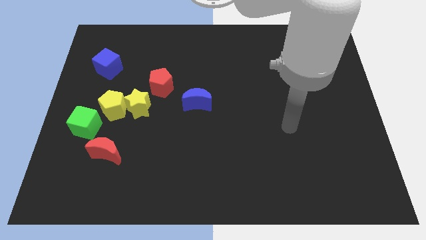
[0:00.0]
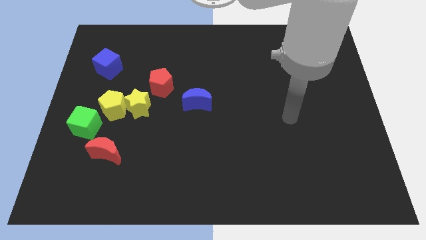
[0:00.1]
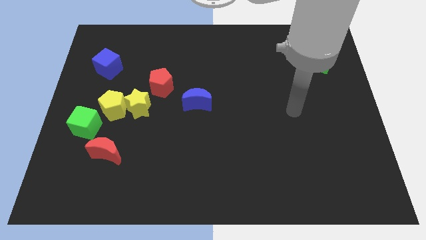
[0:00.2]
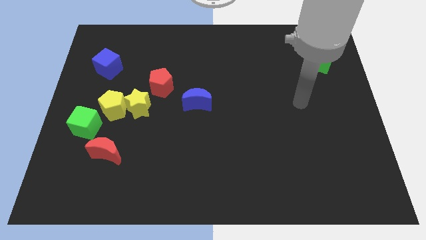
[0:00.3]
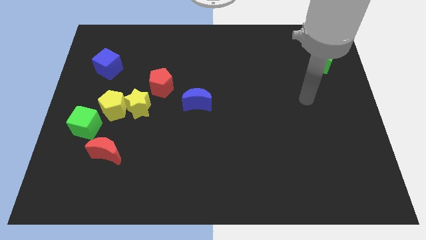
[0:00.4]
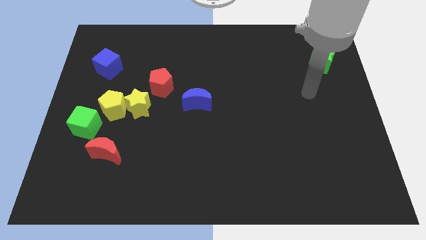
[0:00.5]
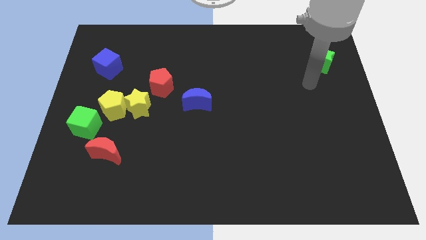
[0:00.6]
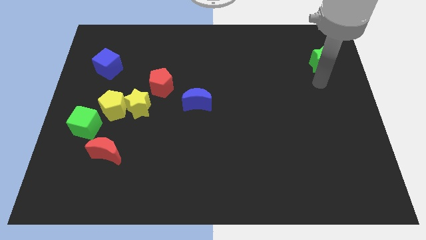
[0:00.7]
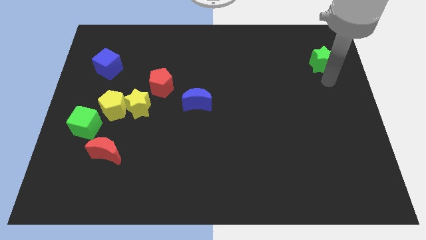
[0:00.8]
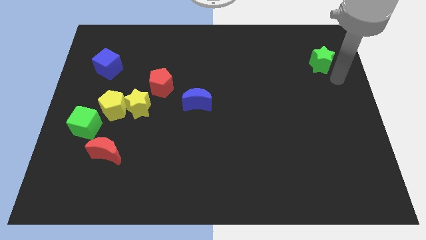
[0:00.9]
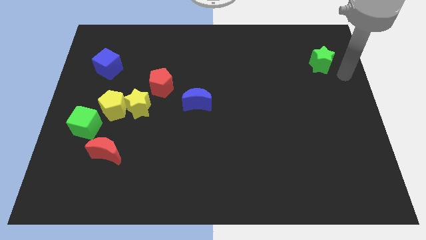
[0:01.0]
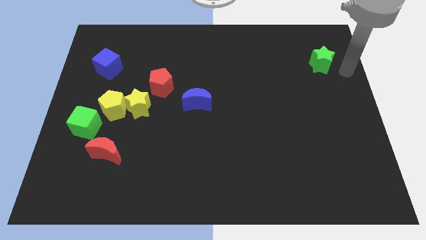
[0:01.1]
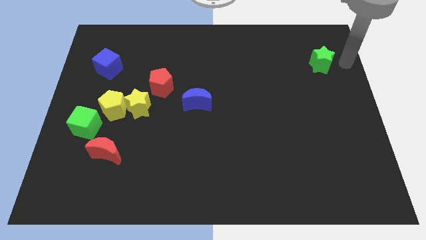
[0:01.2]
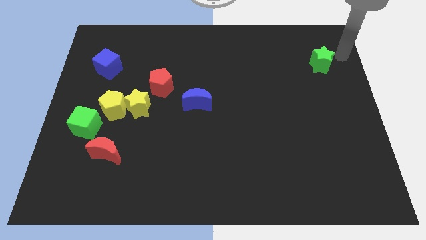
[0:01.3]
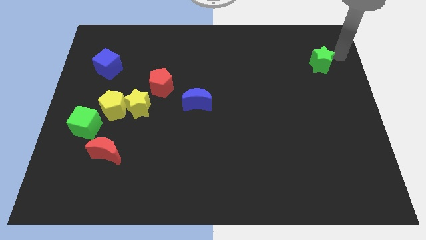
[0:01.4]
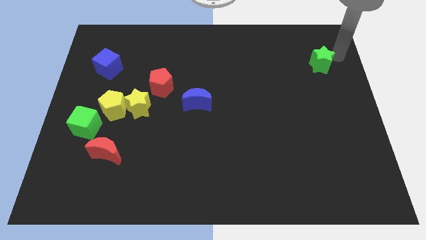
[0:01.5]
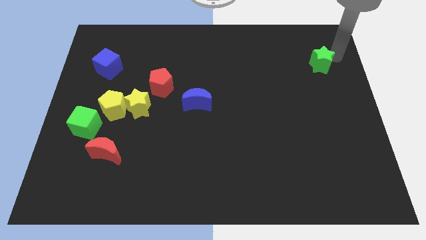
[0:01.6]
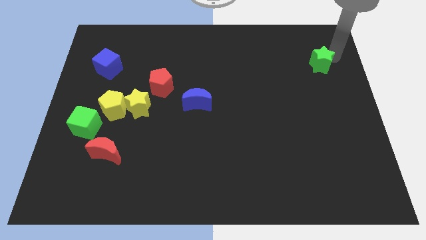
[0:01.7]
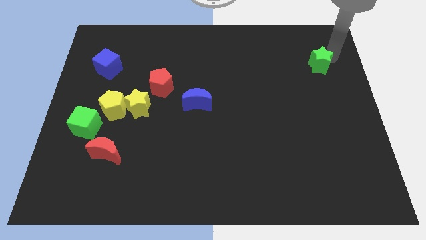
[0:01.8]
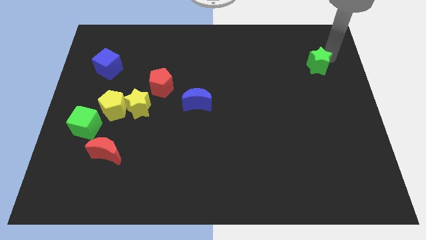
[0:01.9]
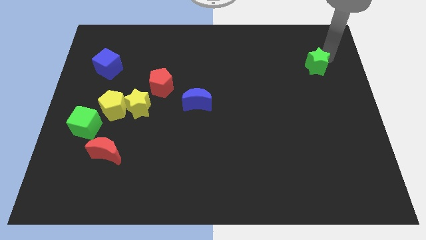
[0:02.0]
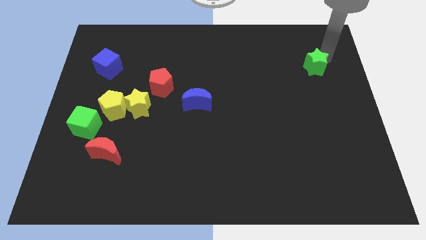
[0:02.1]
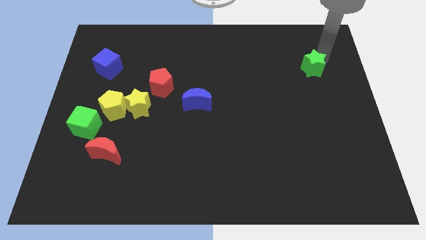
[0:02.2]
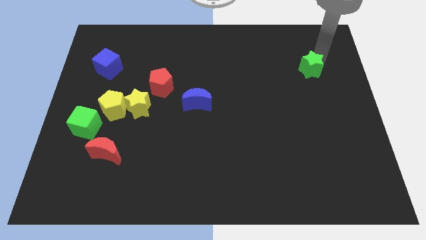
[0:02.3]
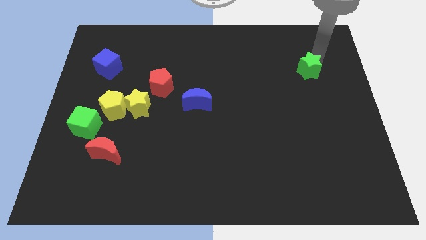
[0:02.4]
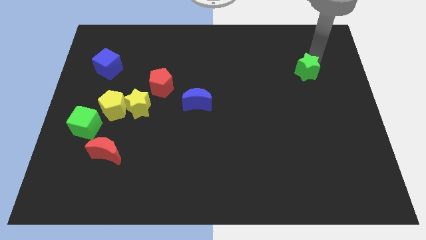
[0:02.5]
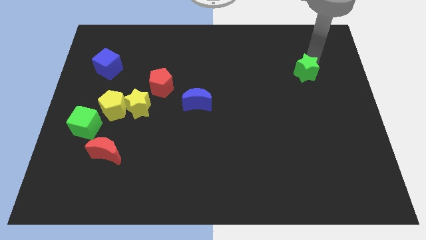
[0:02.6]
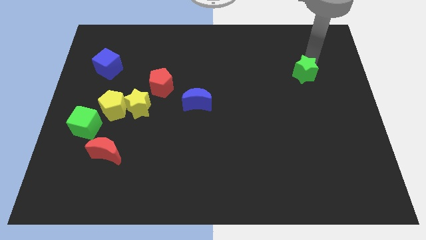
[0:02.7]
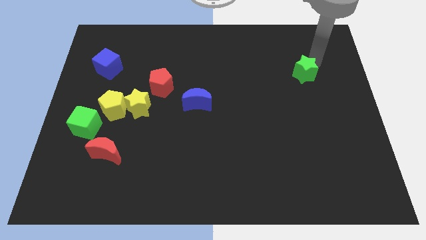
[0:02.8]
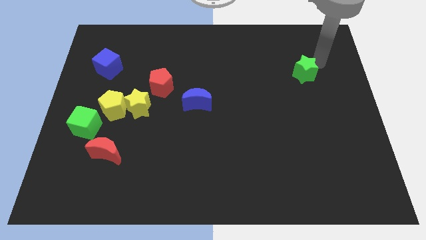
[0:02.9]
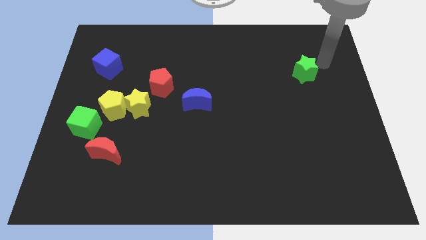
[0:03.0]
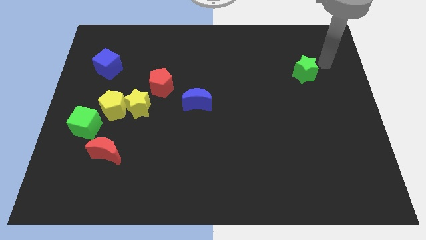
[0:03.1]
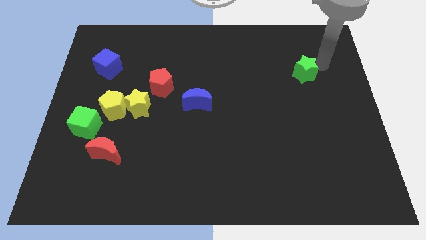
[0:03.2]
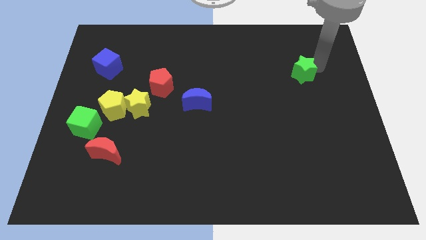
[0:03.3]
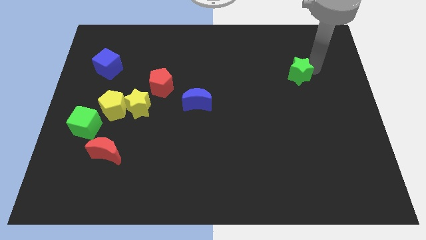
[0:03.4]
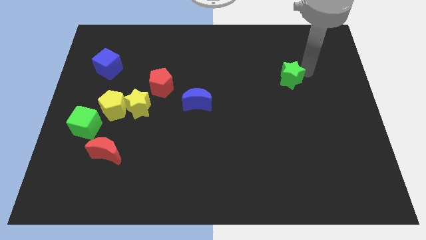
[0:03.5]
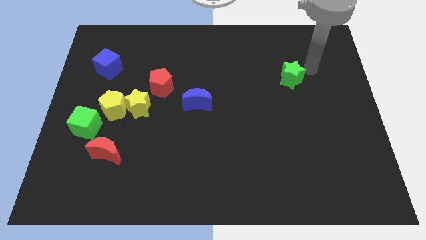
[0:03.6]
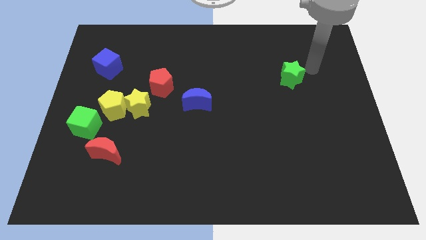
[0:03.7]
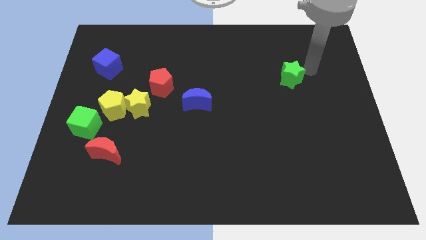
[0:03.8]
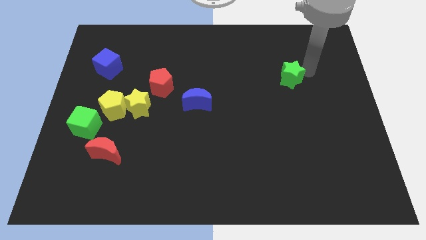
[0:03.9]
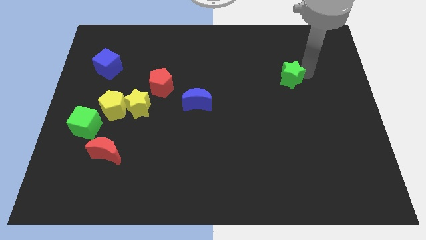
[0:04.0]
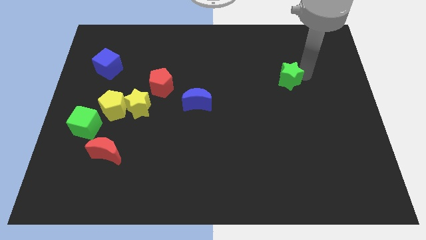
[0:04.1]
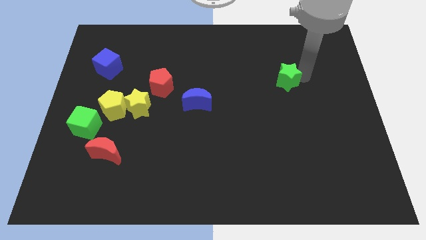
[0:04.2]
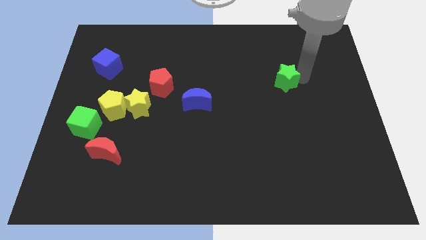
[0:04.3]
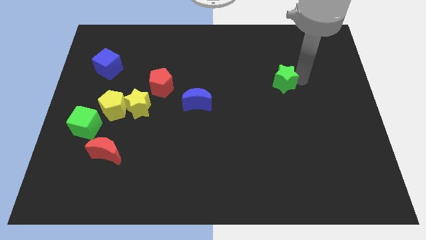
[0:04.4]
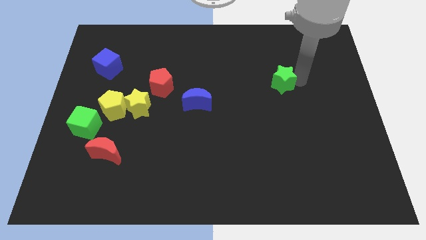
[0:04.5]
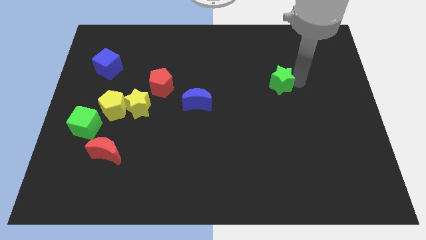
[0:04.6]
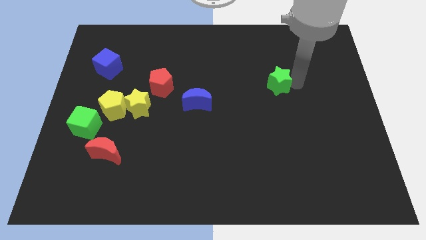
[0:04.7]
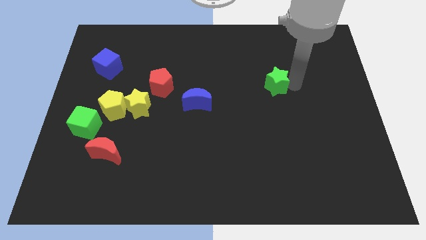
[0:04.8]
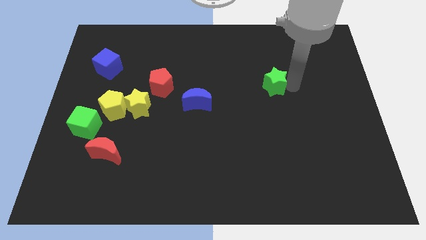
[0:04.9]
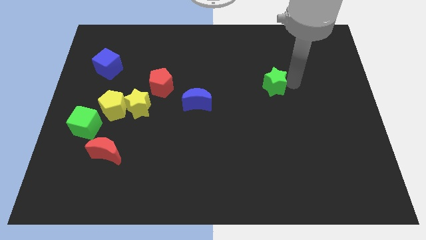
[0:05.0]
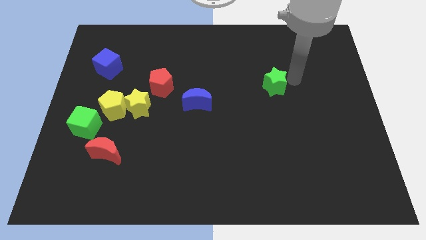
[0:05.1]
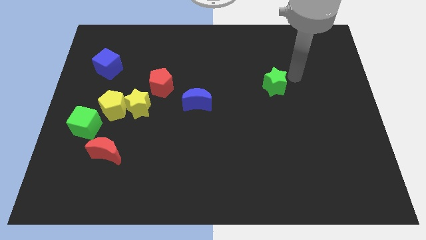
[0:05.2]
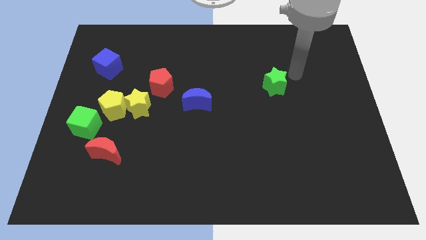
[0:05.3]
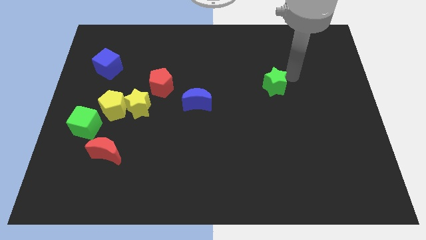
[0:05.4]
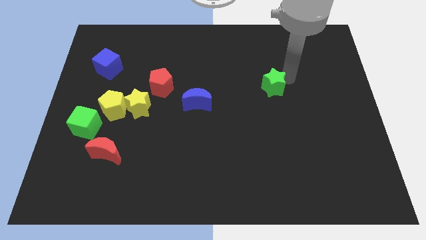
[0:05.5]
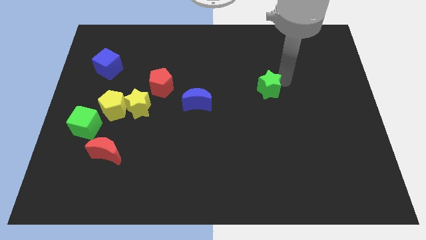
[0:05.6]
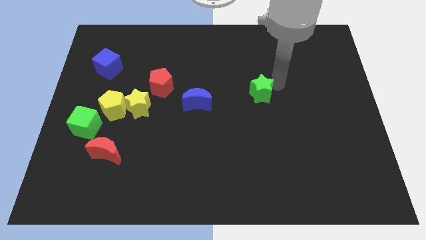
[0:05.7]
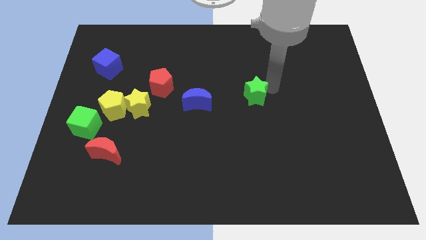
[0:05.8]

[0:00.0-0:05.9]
put the green star just right of the blue moon

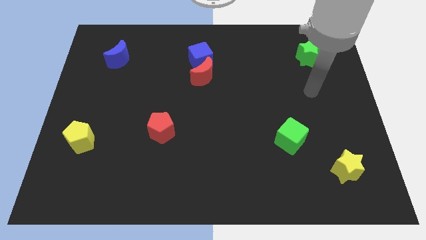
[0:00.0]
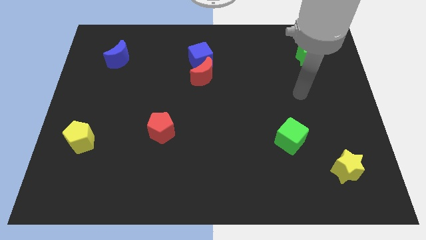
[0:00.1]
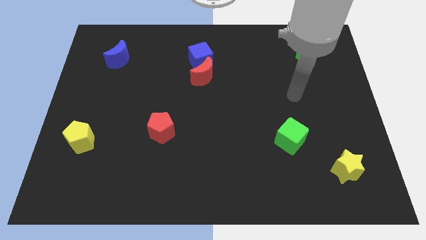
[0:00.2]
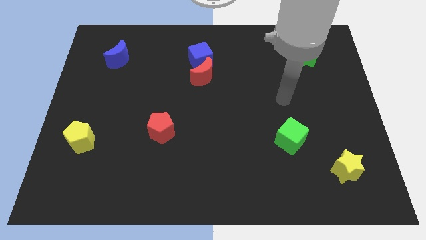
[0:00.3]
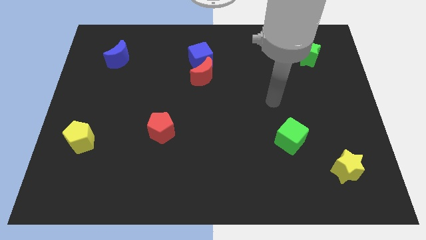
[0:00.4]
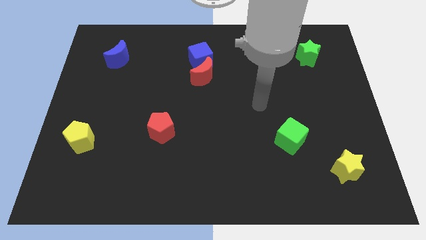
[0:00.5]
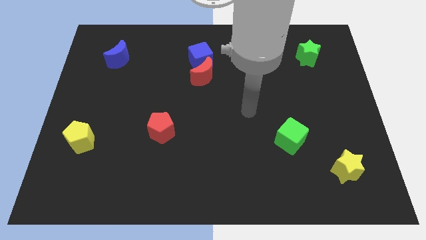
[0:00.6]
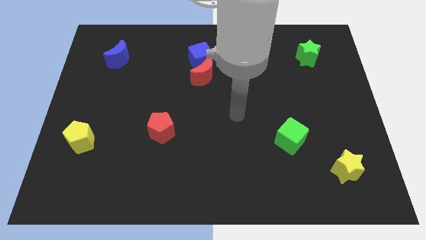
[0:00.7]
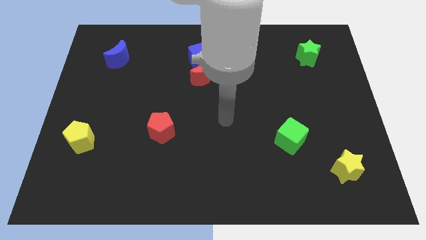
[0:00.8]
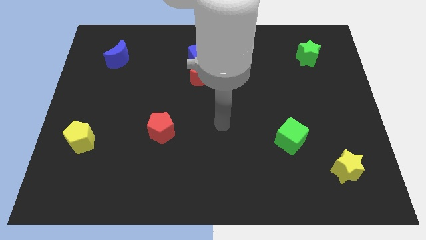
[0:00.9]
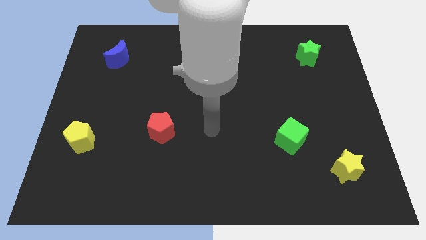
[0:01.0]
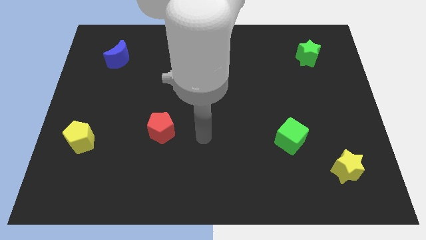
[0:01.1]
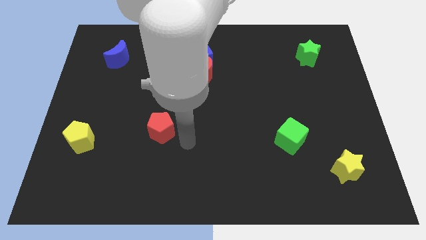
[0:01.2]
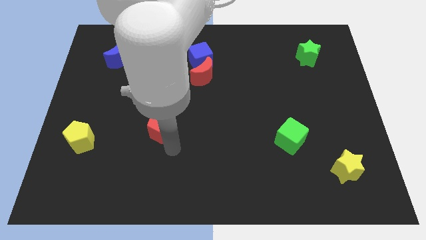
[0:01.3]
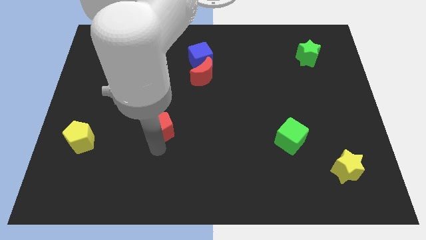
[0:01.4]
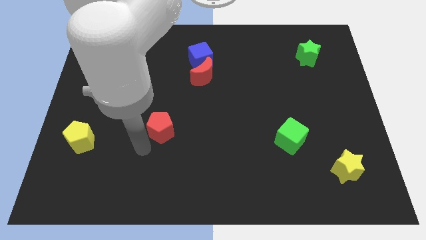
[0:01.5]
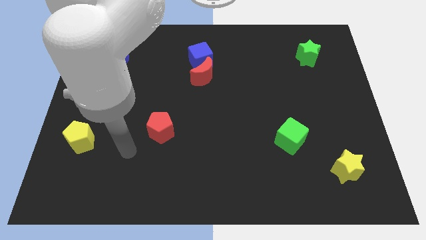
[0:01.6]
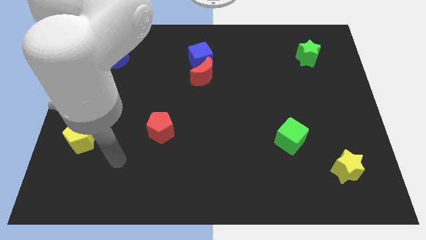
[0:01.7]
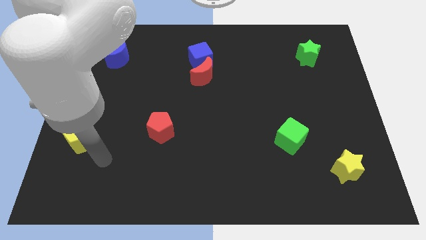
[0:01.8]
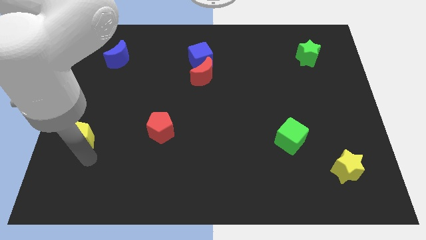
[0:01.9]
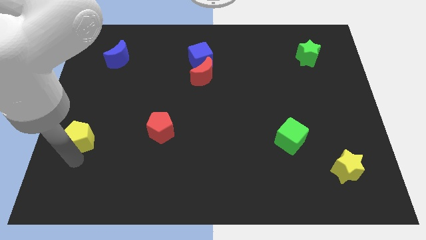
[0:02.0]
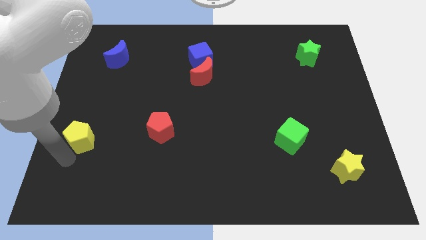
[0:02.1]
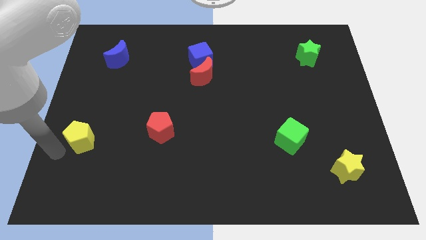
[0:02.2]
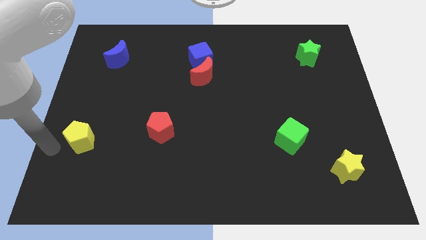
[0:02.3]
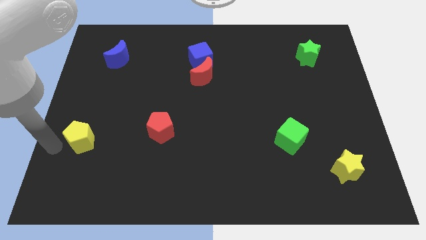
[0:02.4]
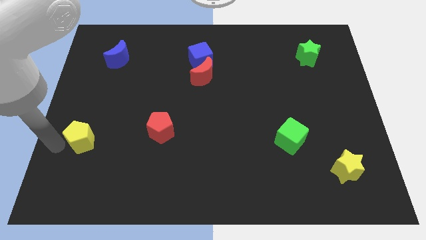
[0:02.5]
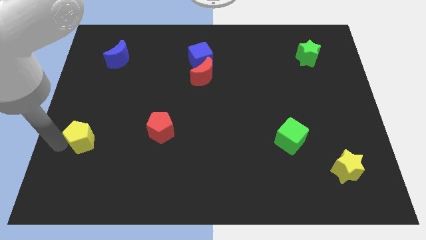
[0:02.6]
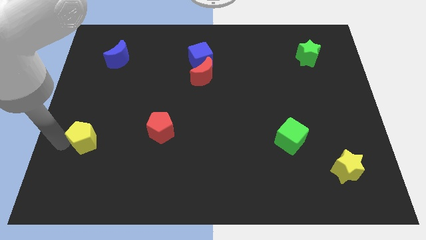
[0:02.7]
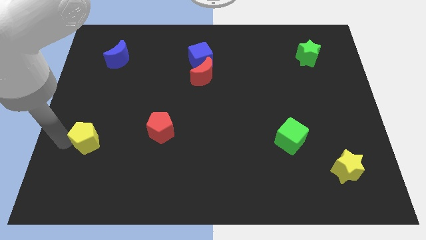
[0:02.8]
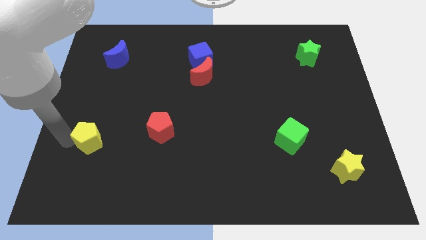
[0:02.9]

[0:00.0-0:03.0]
move the yellow pentagon just left of the red pentagon
